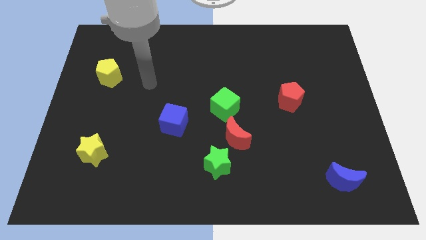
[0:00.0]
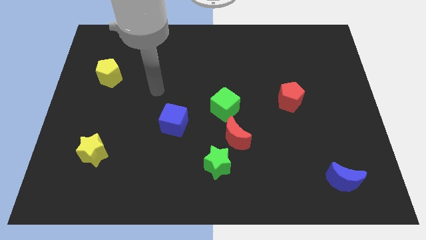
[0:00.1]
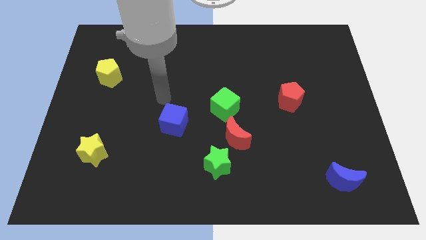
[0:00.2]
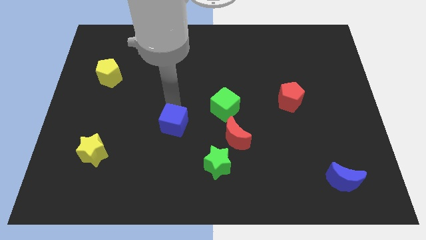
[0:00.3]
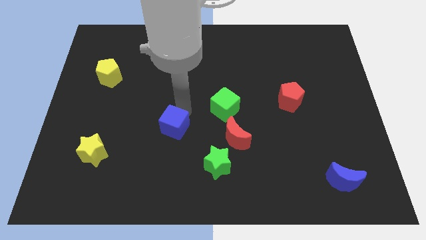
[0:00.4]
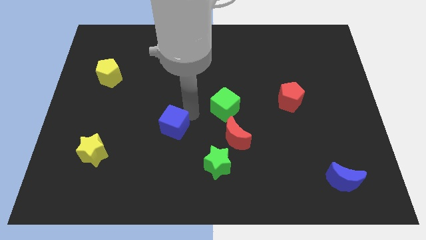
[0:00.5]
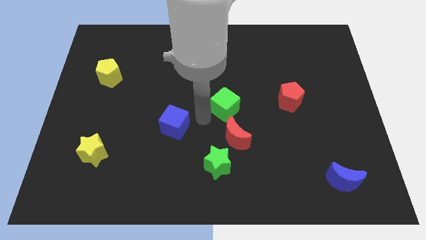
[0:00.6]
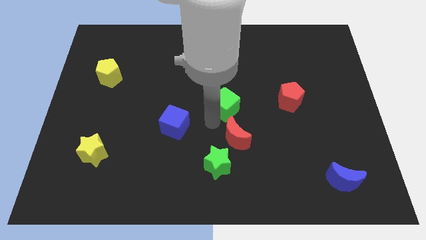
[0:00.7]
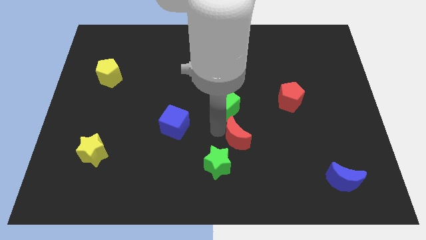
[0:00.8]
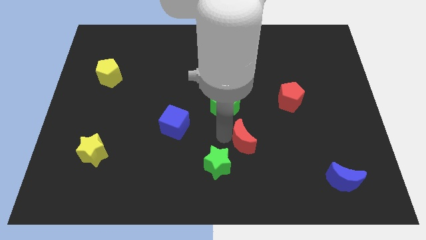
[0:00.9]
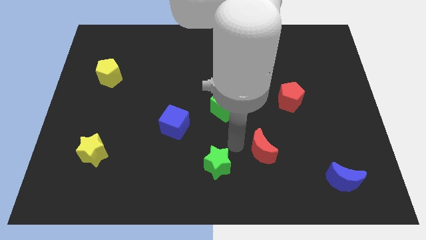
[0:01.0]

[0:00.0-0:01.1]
separate the green star from the red moon

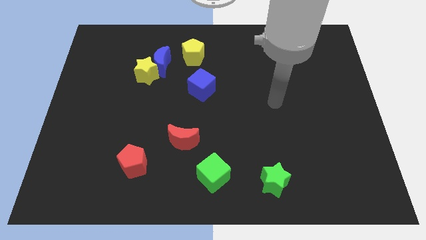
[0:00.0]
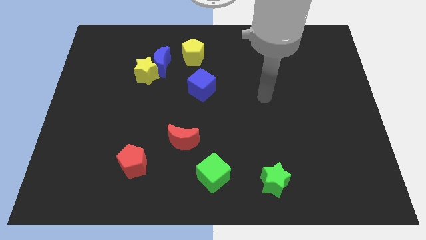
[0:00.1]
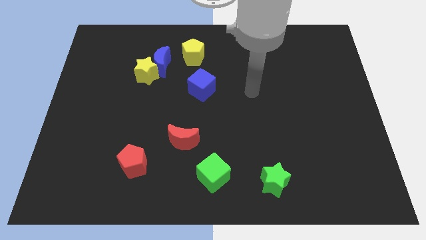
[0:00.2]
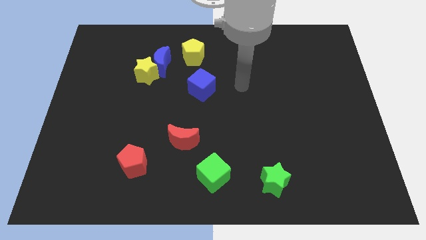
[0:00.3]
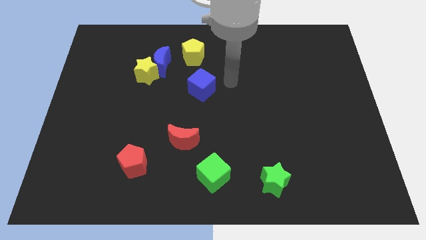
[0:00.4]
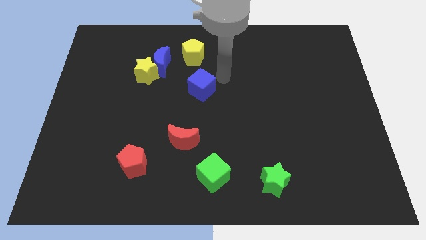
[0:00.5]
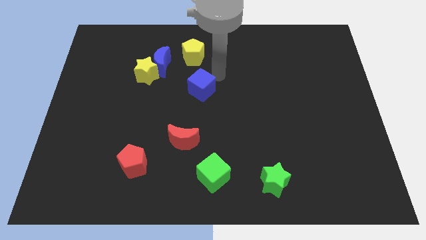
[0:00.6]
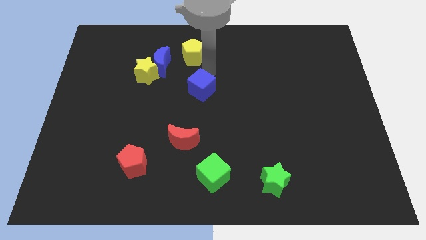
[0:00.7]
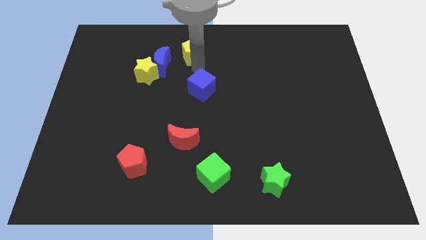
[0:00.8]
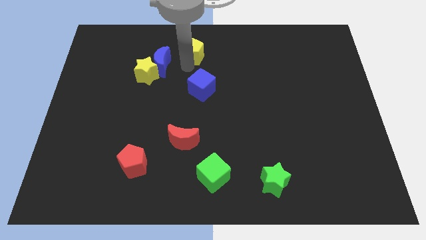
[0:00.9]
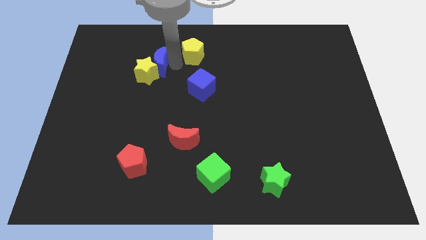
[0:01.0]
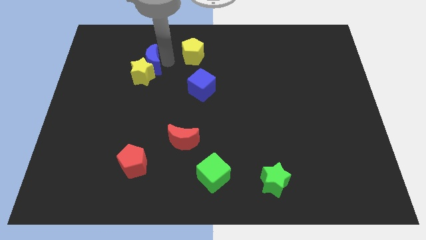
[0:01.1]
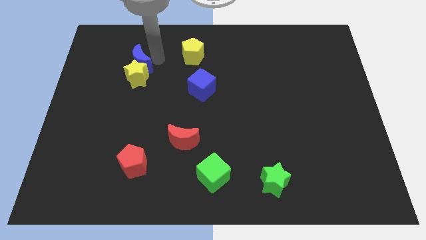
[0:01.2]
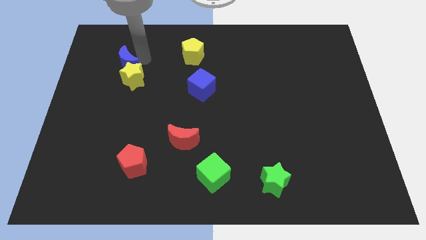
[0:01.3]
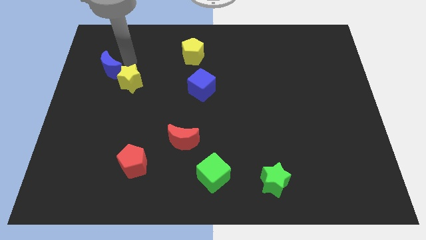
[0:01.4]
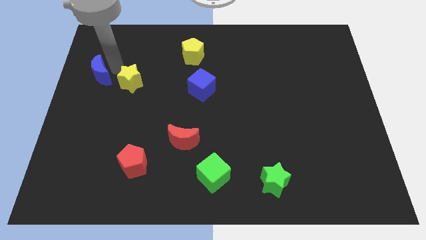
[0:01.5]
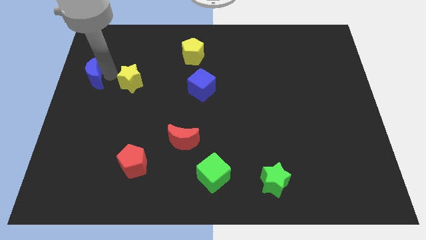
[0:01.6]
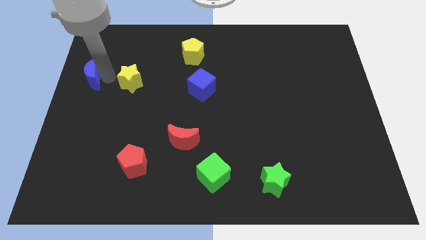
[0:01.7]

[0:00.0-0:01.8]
pull the yellow star apart from the blue moon

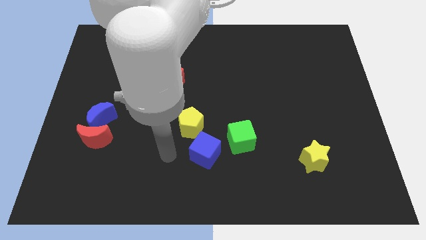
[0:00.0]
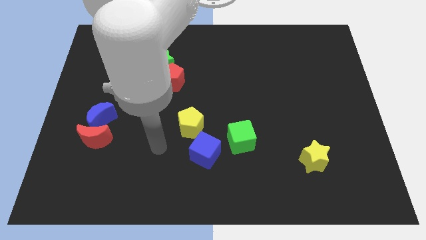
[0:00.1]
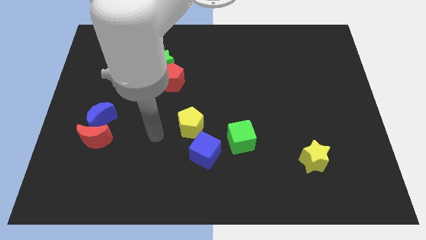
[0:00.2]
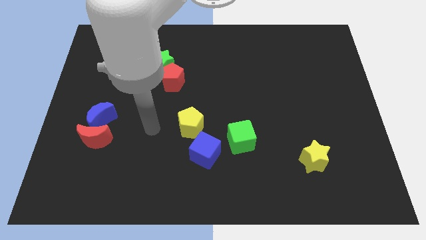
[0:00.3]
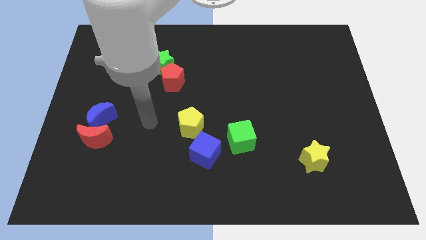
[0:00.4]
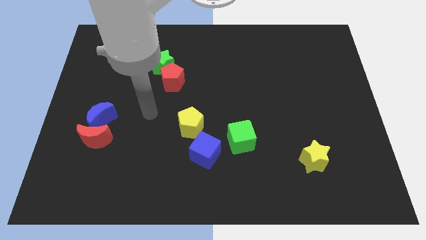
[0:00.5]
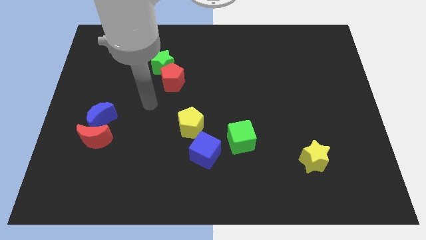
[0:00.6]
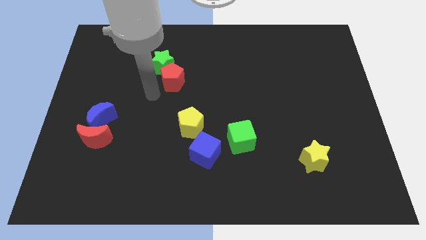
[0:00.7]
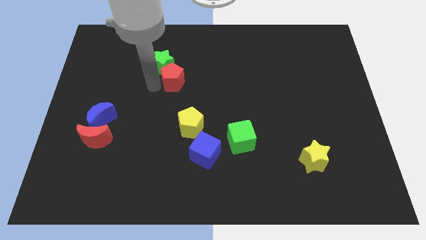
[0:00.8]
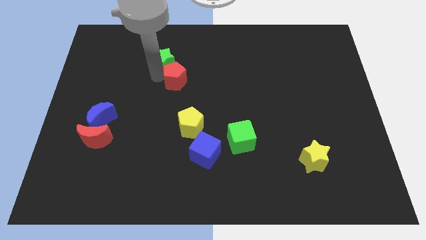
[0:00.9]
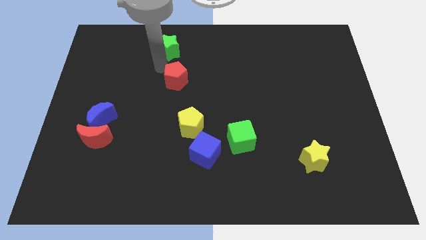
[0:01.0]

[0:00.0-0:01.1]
move the red pentagon away from the green star

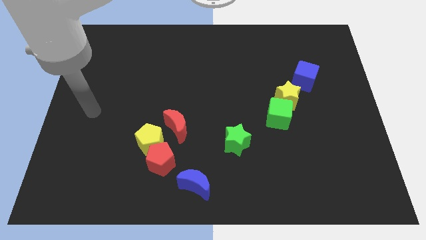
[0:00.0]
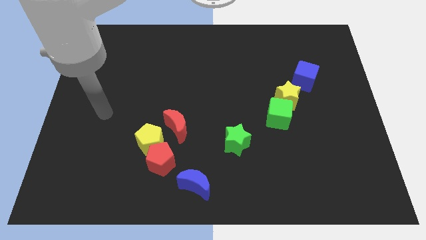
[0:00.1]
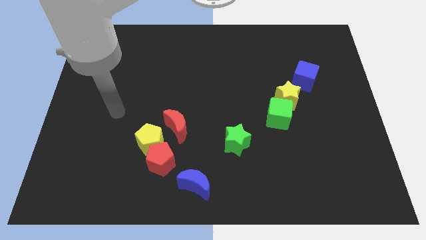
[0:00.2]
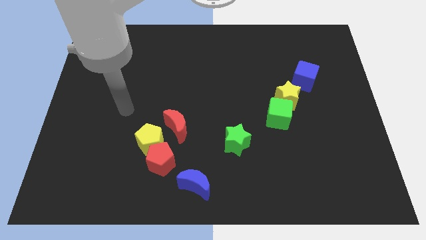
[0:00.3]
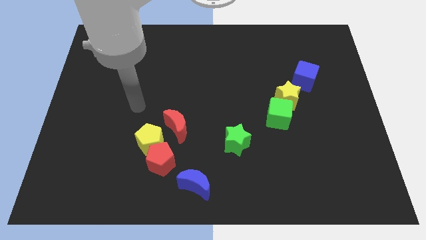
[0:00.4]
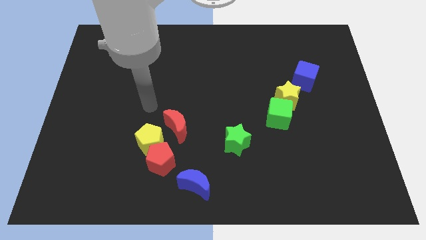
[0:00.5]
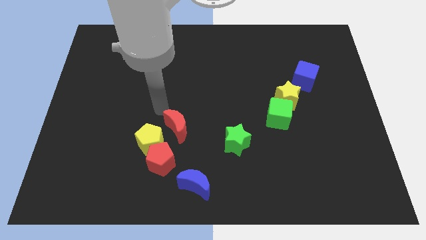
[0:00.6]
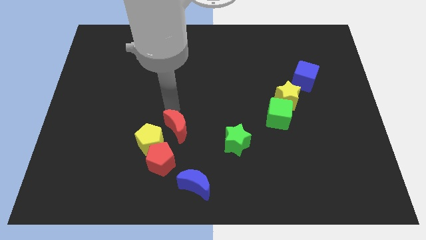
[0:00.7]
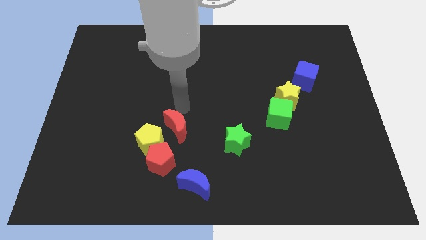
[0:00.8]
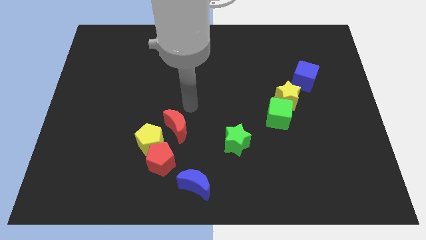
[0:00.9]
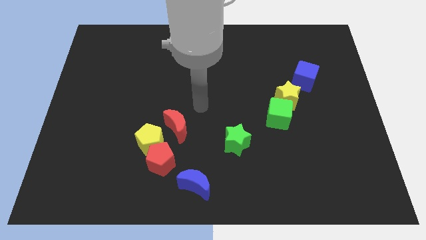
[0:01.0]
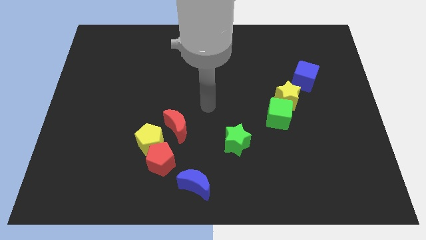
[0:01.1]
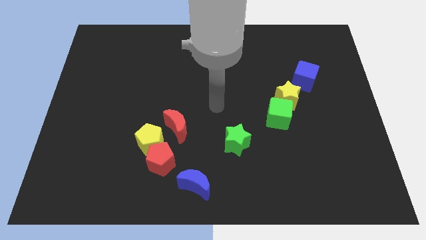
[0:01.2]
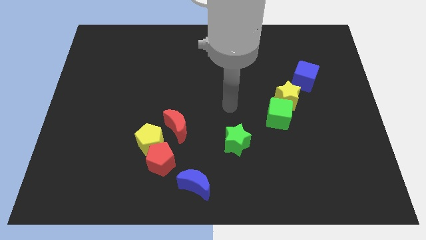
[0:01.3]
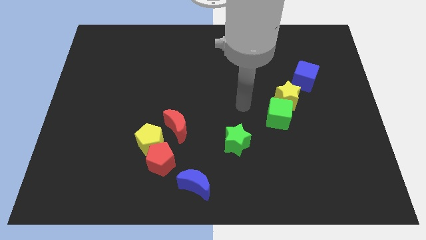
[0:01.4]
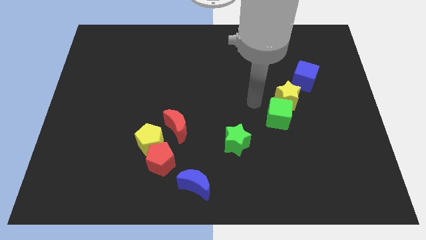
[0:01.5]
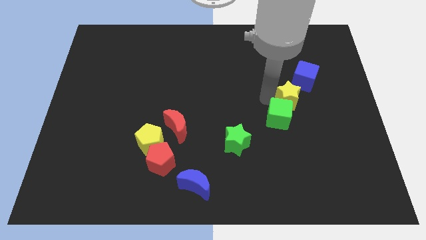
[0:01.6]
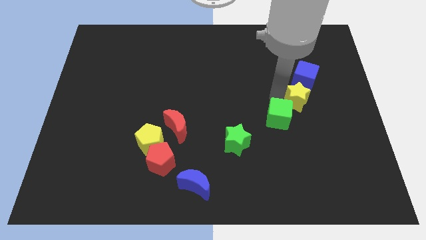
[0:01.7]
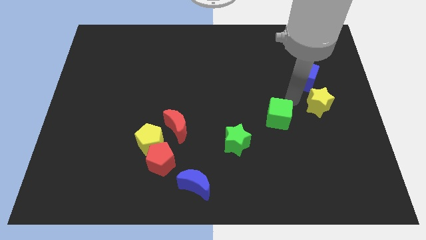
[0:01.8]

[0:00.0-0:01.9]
separate the green cube from the yellow star

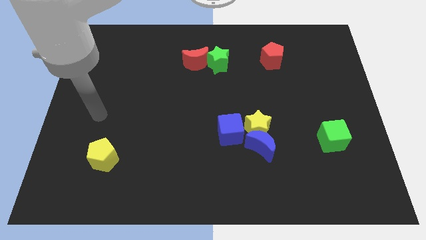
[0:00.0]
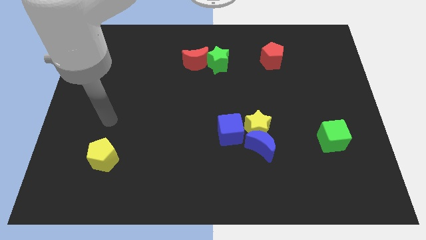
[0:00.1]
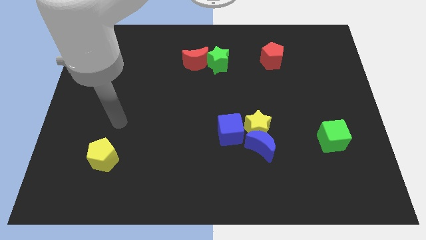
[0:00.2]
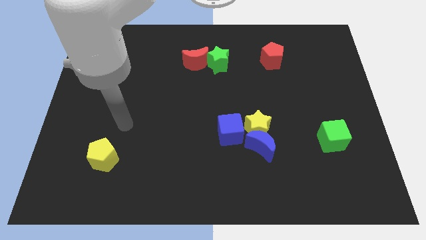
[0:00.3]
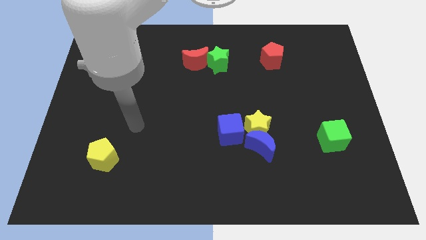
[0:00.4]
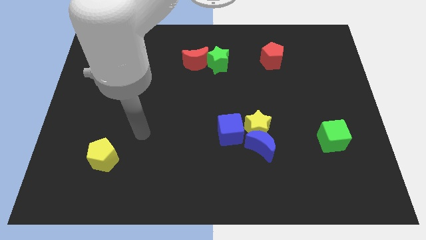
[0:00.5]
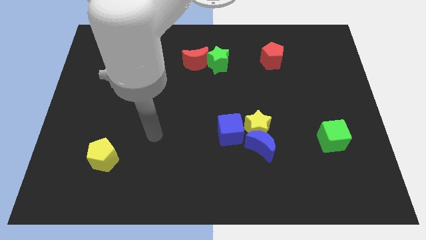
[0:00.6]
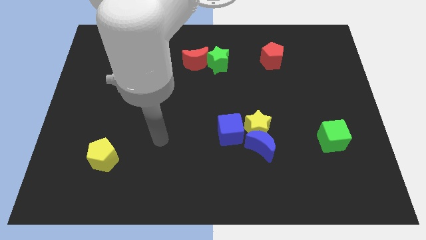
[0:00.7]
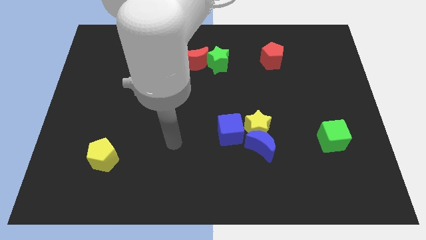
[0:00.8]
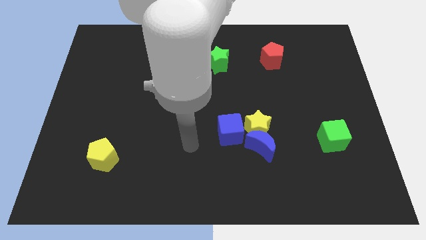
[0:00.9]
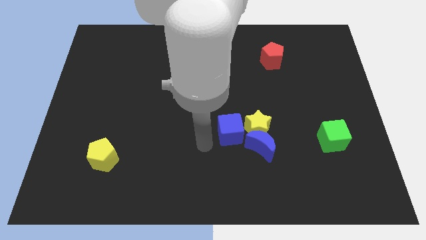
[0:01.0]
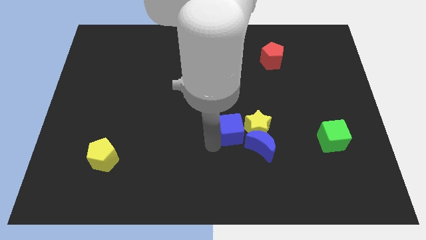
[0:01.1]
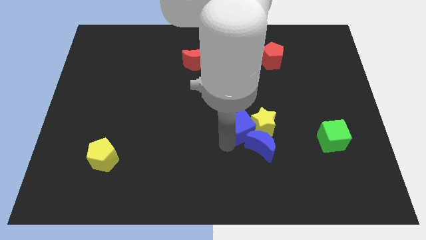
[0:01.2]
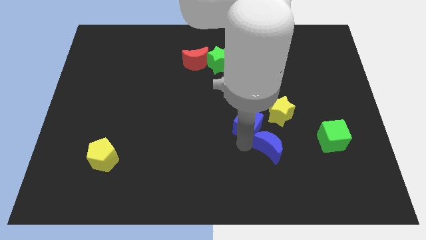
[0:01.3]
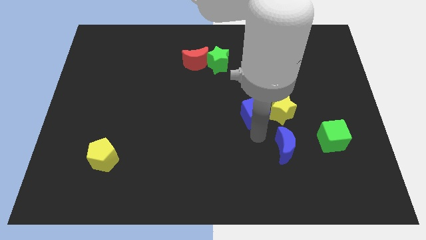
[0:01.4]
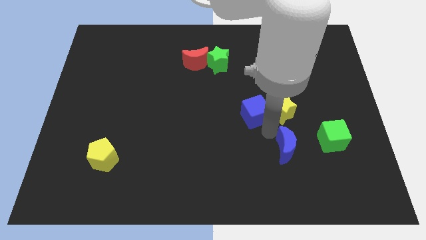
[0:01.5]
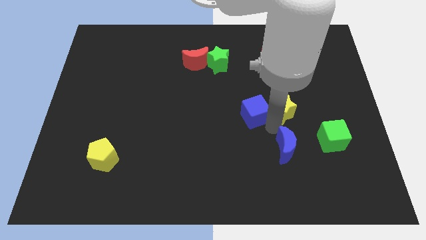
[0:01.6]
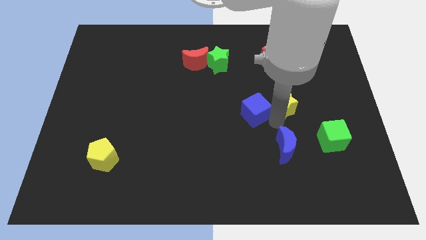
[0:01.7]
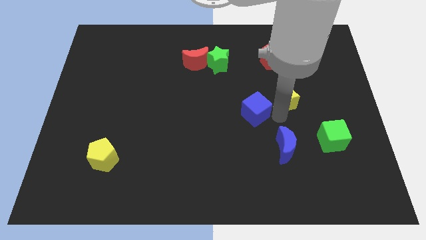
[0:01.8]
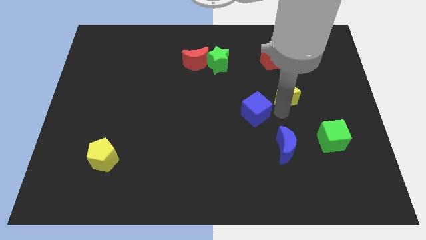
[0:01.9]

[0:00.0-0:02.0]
pull the yellow star apart from the blue moon and blue cube

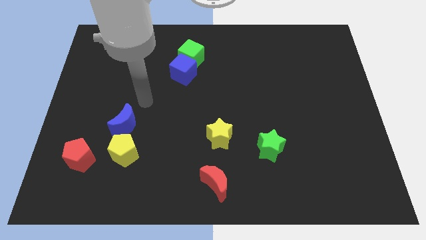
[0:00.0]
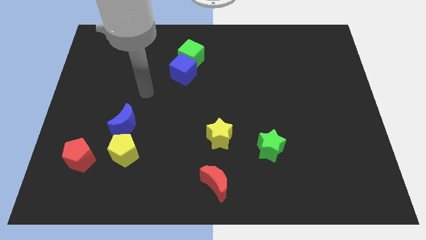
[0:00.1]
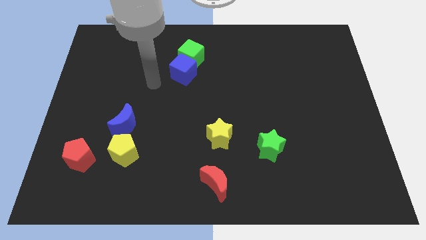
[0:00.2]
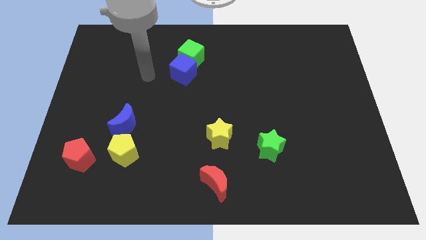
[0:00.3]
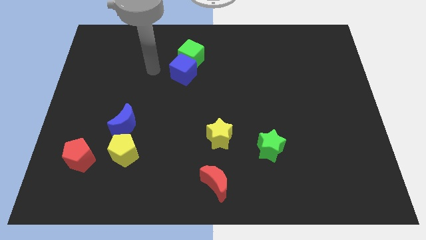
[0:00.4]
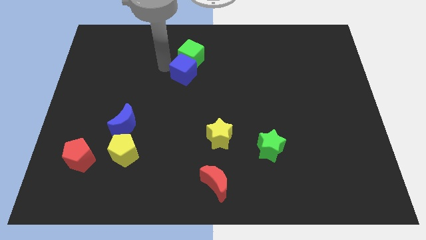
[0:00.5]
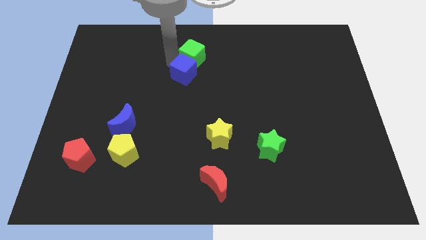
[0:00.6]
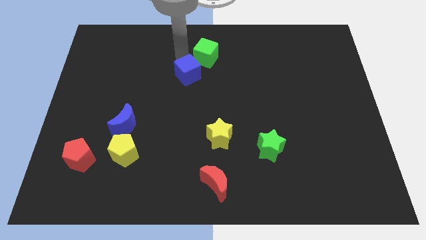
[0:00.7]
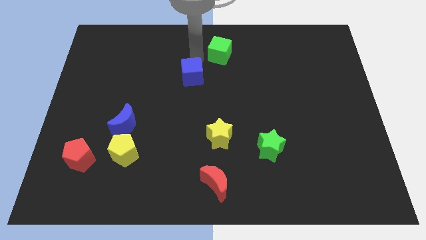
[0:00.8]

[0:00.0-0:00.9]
pull the blue cube apart from the green cube

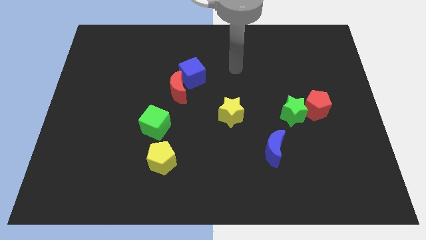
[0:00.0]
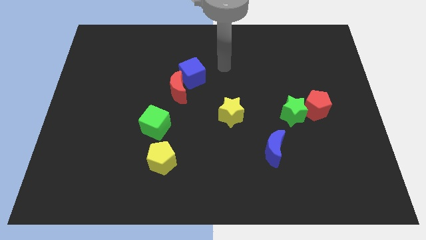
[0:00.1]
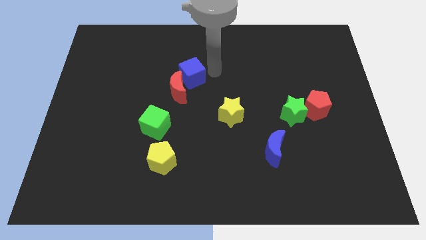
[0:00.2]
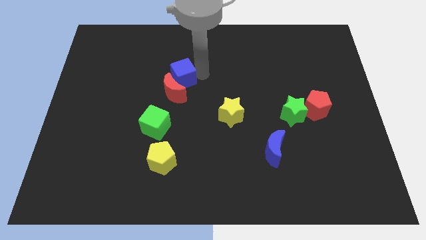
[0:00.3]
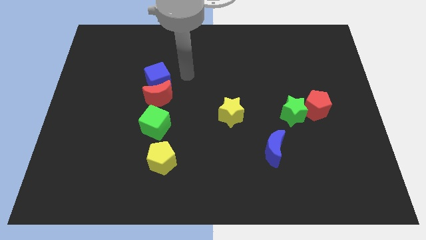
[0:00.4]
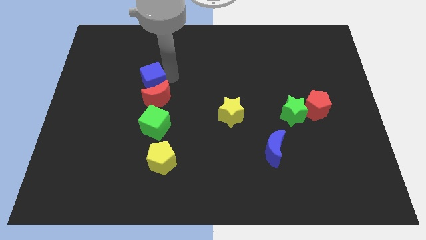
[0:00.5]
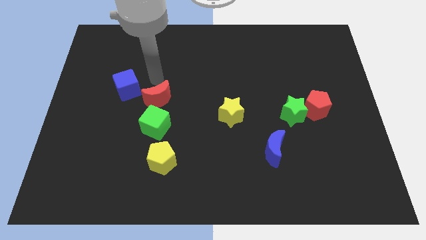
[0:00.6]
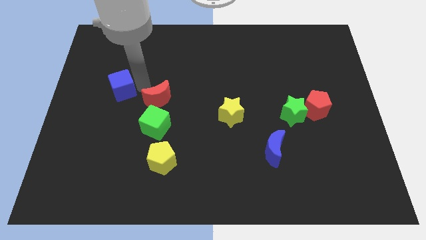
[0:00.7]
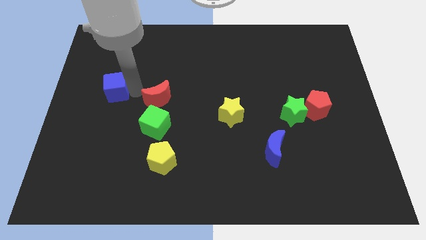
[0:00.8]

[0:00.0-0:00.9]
move the red moon away from the blue cube
